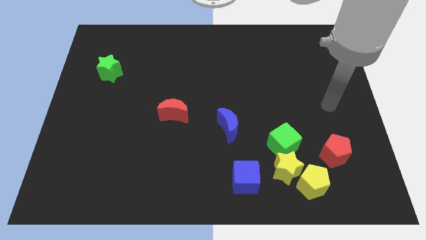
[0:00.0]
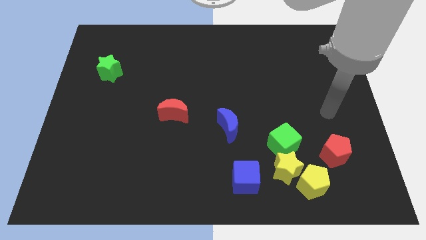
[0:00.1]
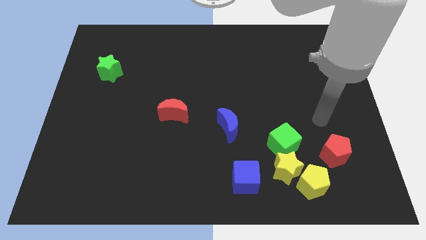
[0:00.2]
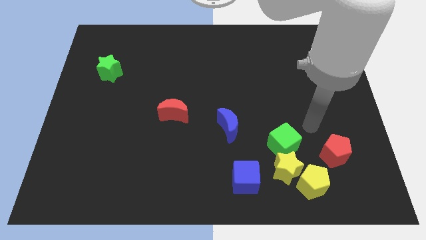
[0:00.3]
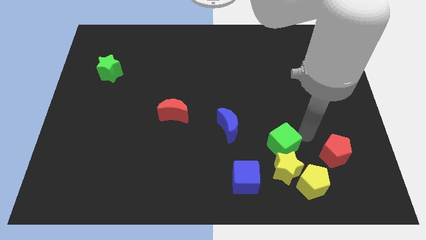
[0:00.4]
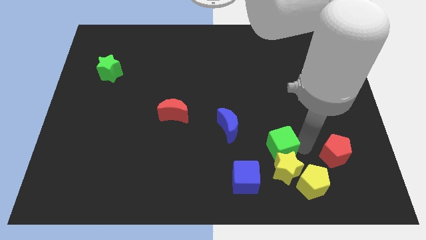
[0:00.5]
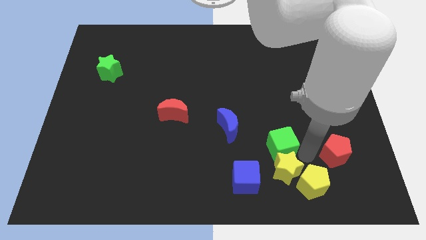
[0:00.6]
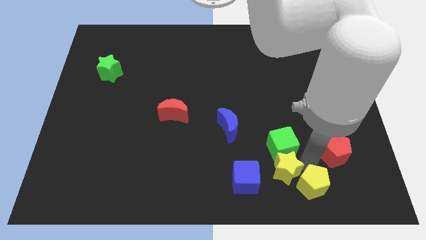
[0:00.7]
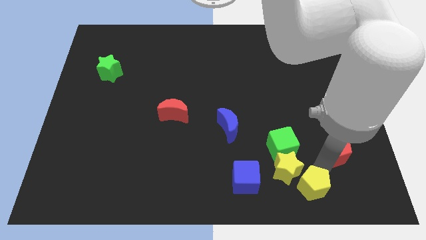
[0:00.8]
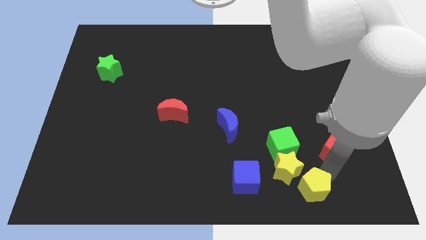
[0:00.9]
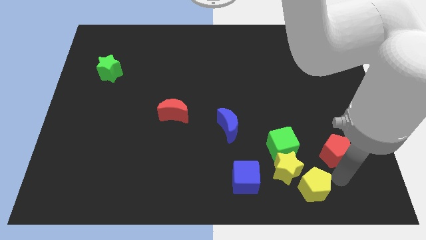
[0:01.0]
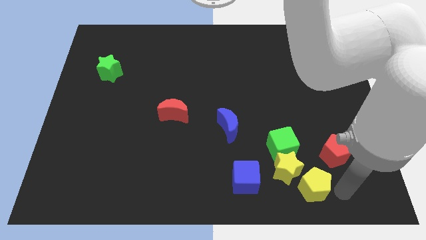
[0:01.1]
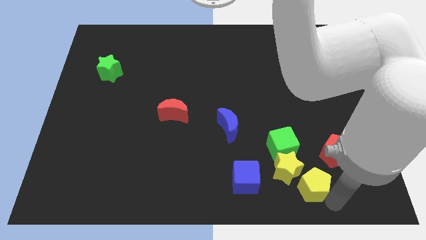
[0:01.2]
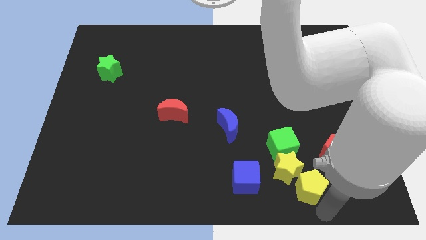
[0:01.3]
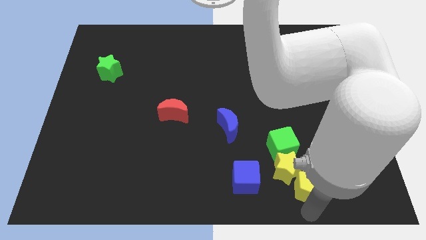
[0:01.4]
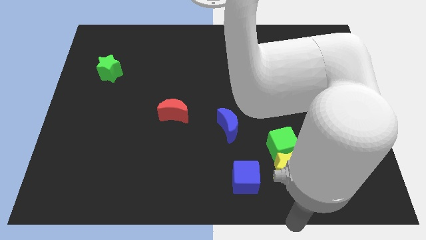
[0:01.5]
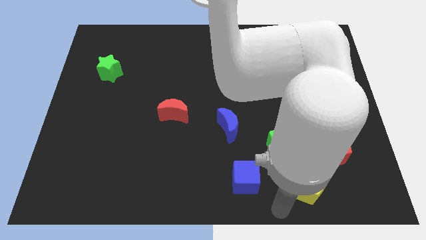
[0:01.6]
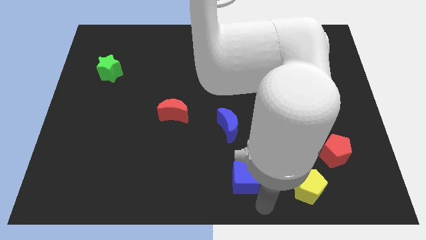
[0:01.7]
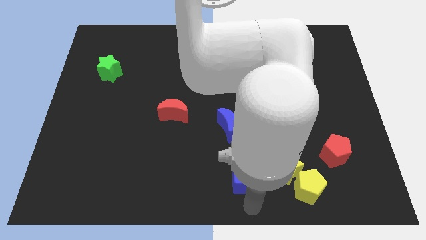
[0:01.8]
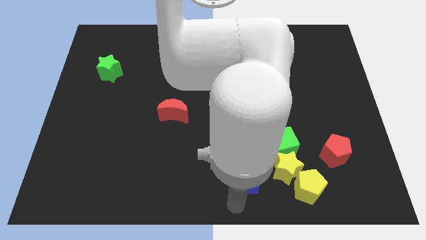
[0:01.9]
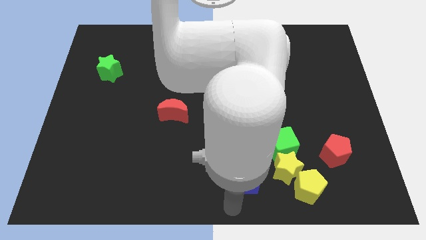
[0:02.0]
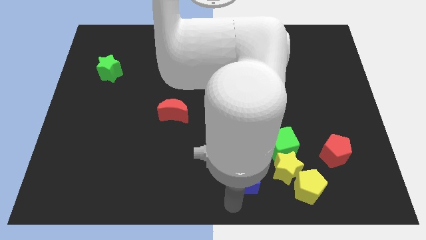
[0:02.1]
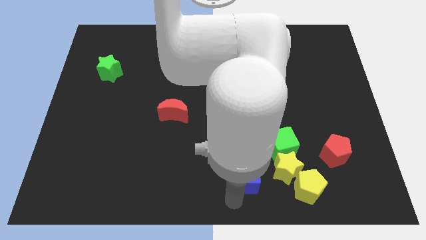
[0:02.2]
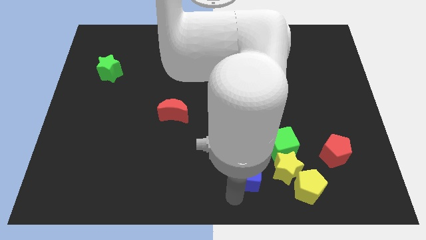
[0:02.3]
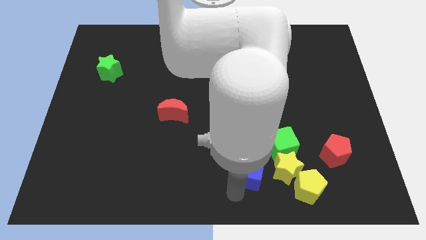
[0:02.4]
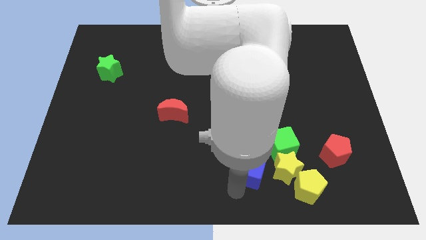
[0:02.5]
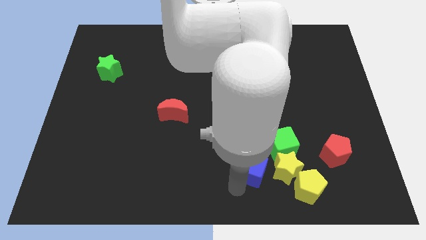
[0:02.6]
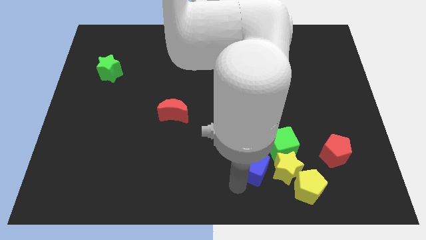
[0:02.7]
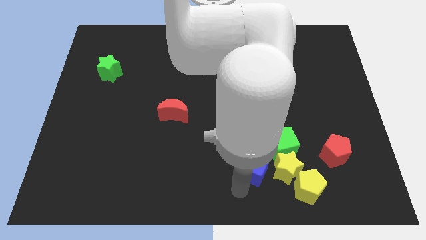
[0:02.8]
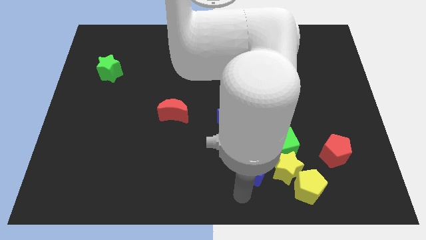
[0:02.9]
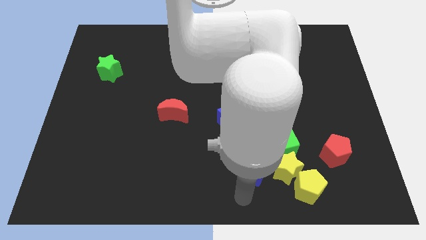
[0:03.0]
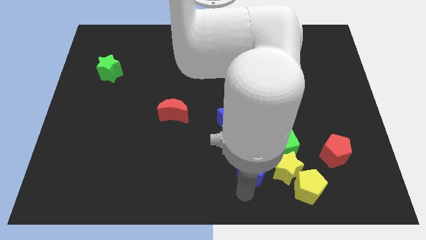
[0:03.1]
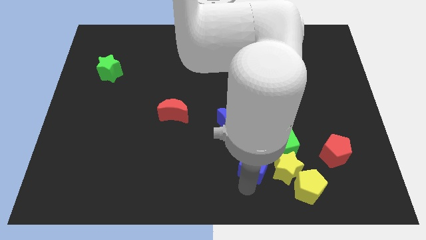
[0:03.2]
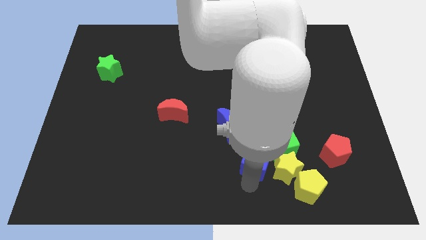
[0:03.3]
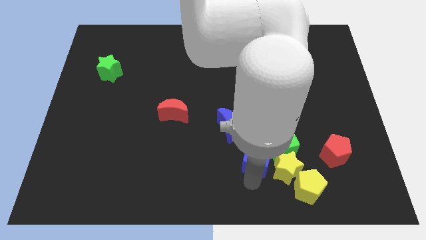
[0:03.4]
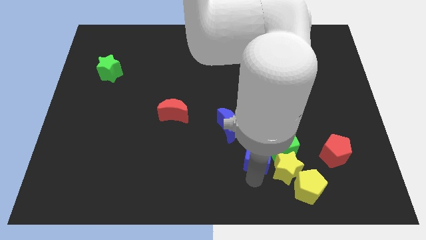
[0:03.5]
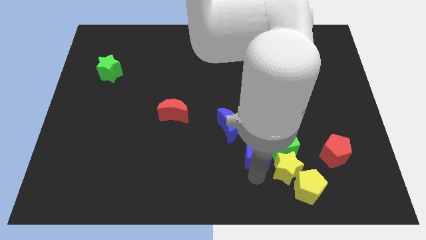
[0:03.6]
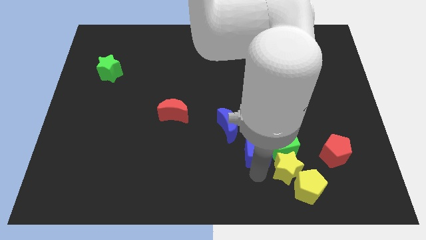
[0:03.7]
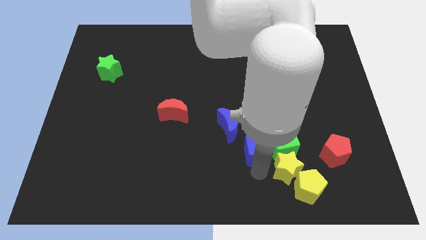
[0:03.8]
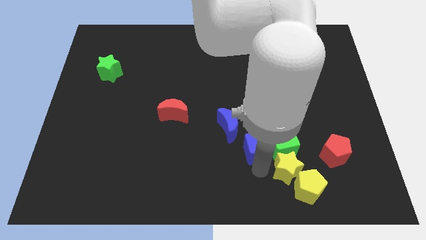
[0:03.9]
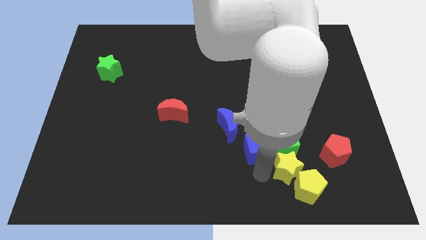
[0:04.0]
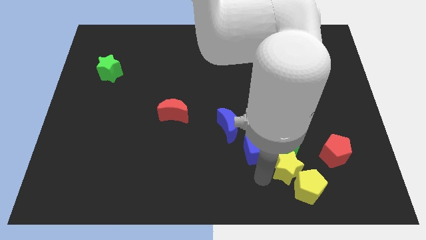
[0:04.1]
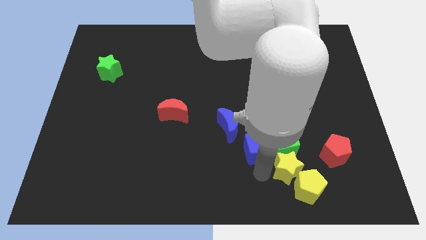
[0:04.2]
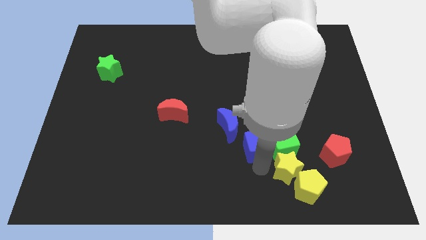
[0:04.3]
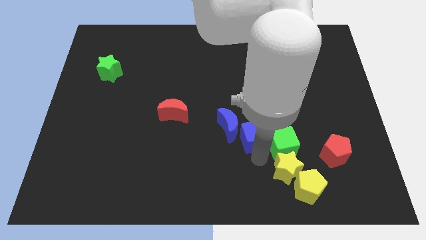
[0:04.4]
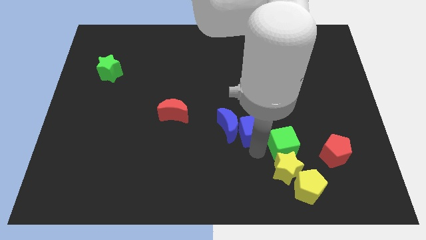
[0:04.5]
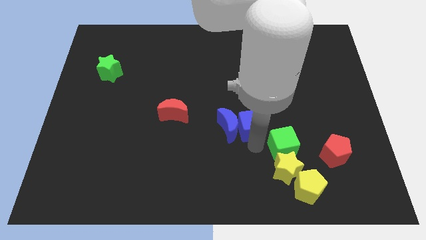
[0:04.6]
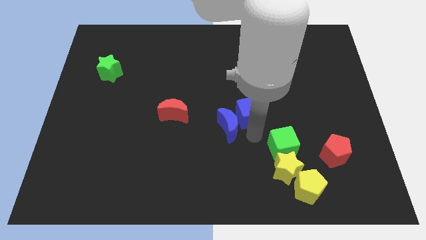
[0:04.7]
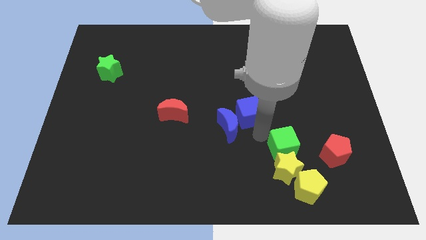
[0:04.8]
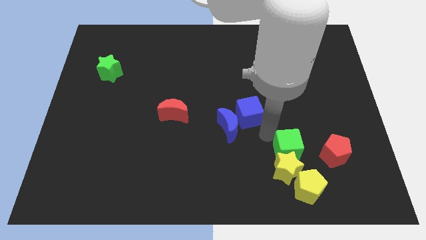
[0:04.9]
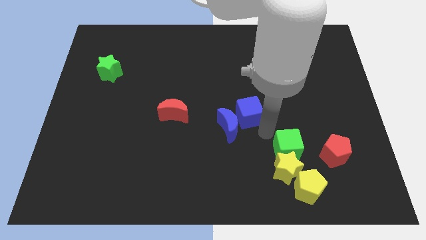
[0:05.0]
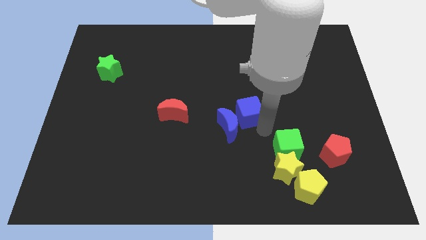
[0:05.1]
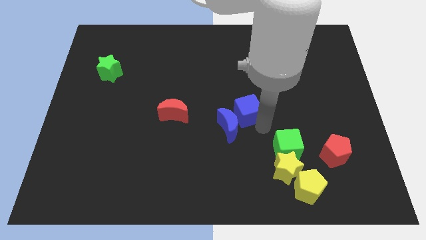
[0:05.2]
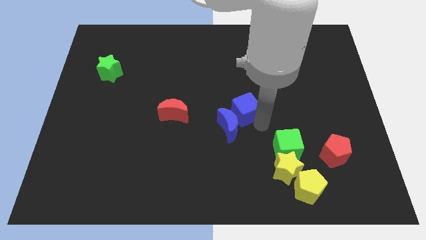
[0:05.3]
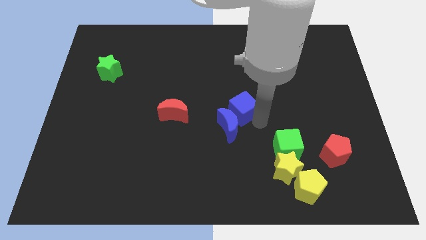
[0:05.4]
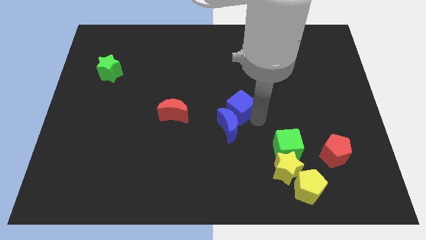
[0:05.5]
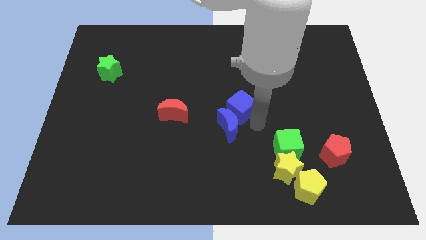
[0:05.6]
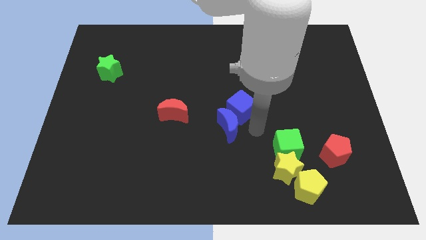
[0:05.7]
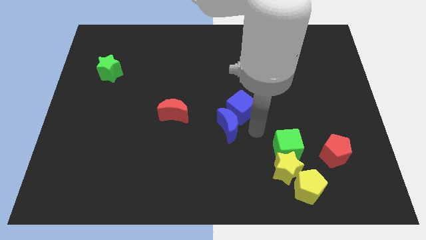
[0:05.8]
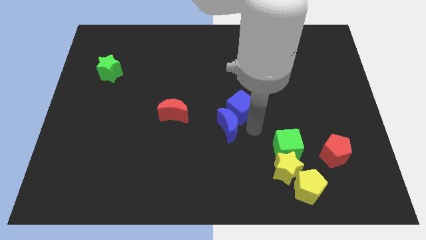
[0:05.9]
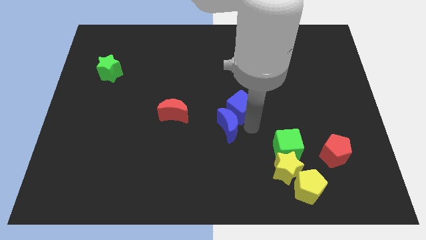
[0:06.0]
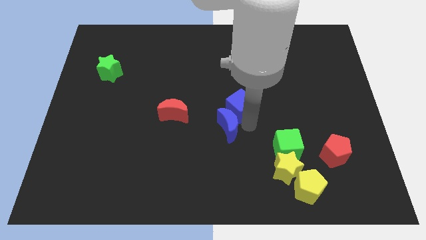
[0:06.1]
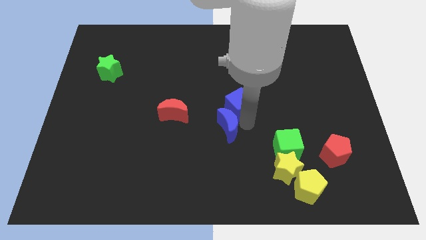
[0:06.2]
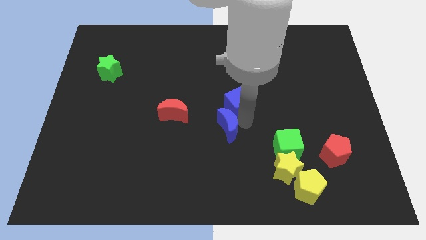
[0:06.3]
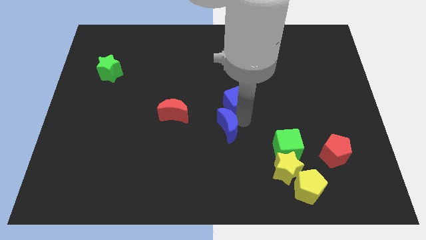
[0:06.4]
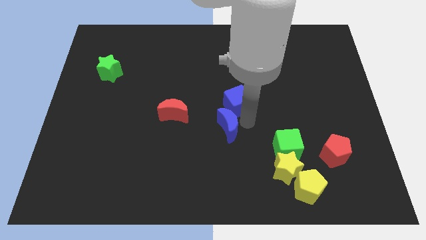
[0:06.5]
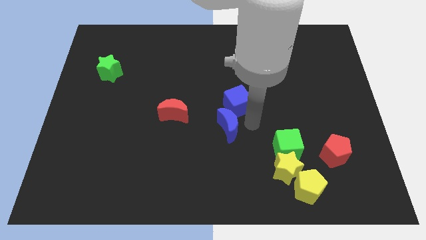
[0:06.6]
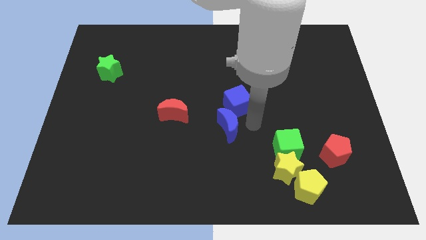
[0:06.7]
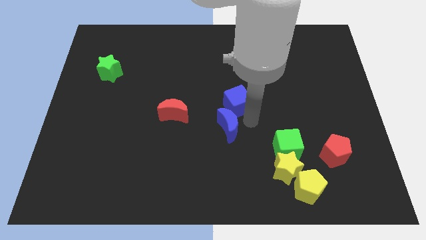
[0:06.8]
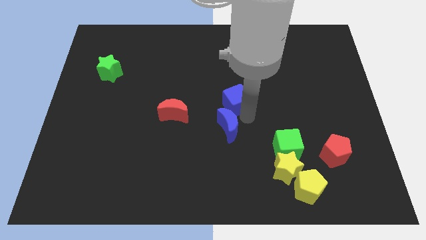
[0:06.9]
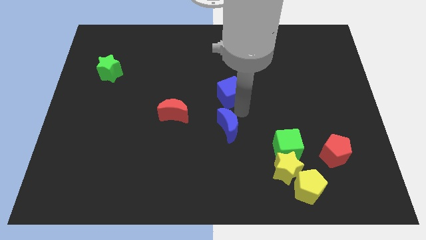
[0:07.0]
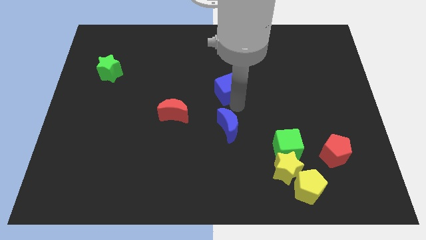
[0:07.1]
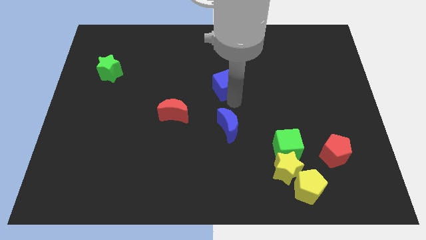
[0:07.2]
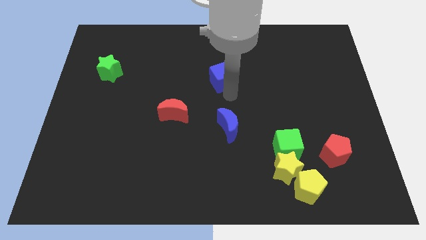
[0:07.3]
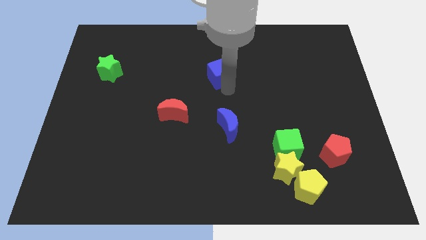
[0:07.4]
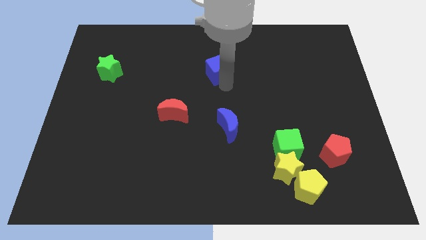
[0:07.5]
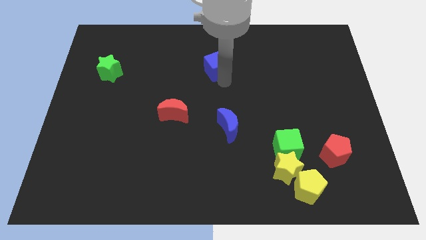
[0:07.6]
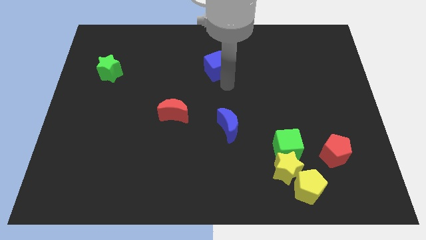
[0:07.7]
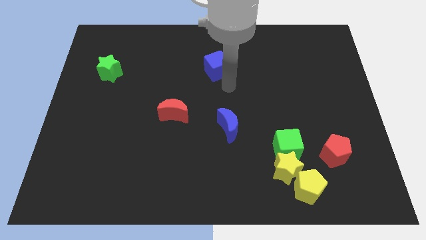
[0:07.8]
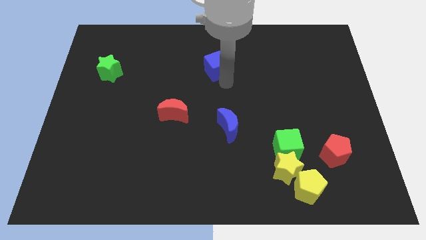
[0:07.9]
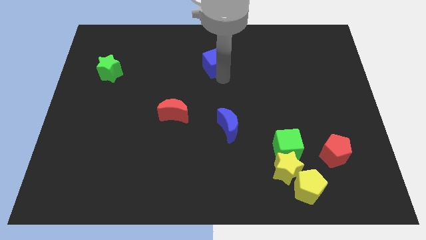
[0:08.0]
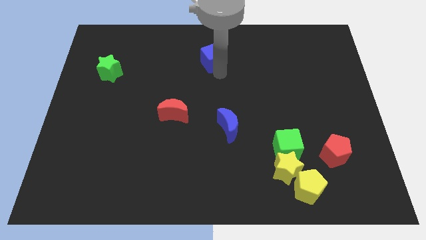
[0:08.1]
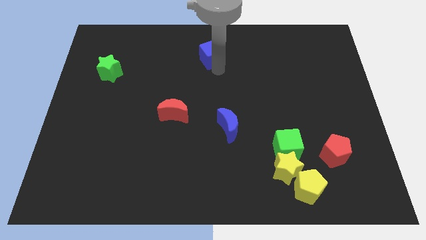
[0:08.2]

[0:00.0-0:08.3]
put the blue cube to the top side
